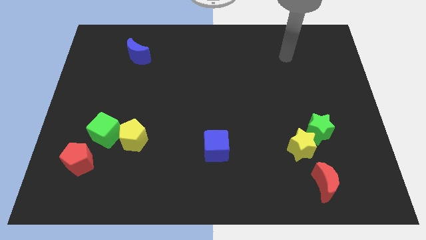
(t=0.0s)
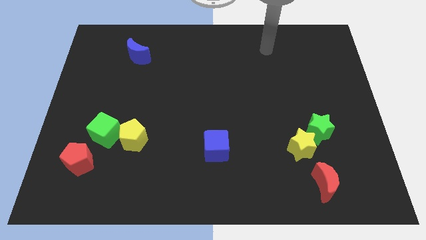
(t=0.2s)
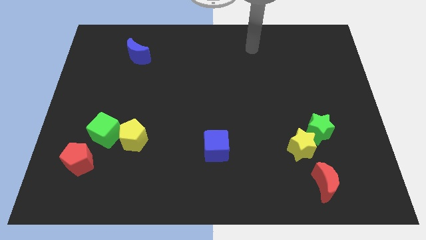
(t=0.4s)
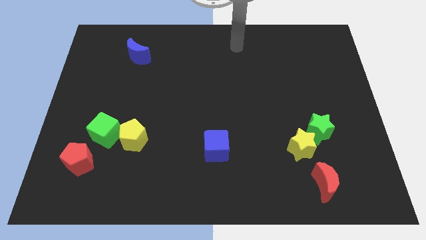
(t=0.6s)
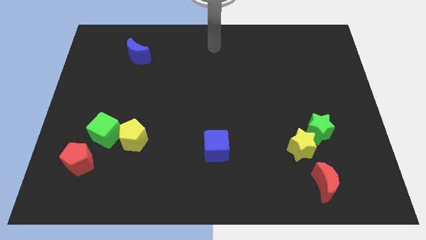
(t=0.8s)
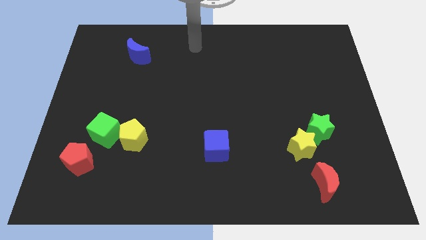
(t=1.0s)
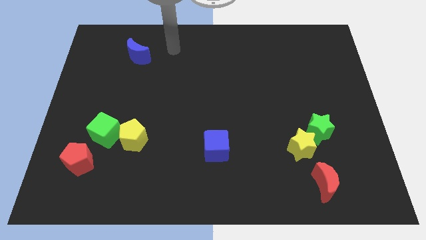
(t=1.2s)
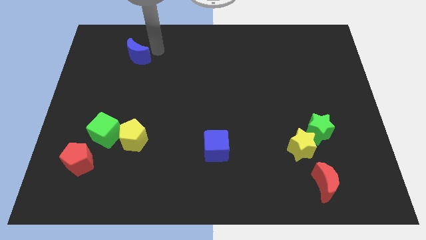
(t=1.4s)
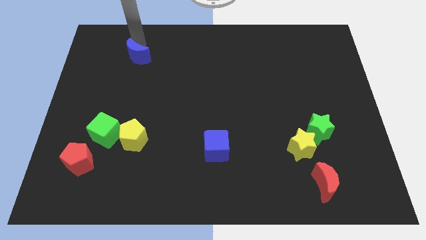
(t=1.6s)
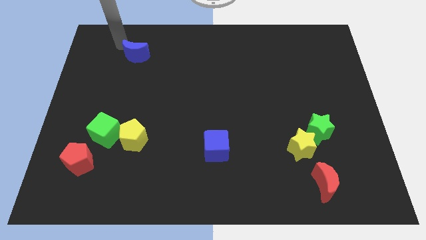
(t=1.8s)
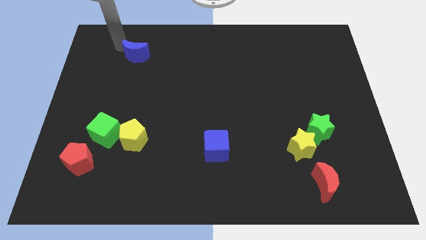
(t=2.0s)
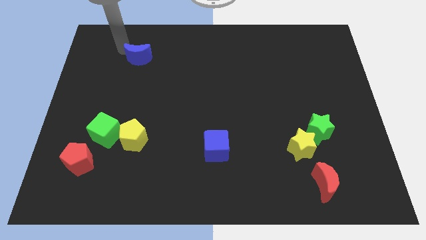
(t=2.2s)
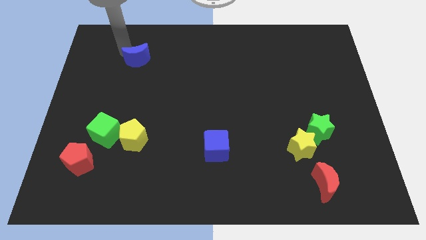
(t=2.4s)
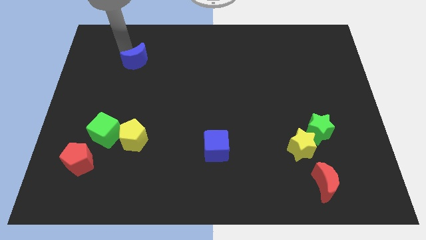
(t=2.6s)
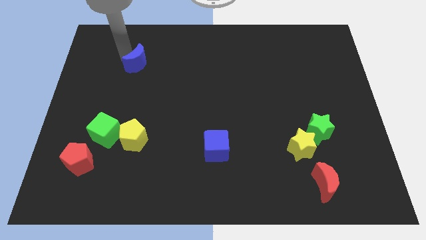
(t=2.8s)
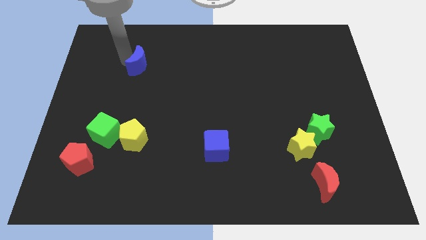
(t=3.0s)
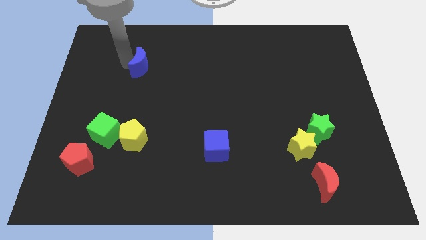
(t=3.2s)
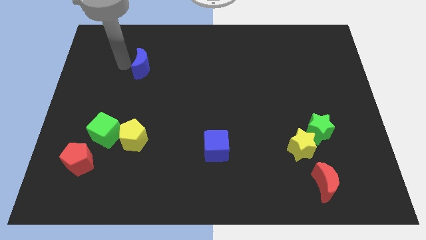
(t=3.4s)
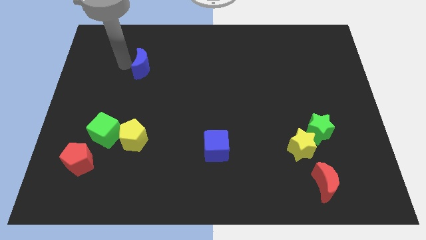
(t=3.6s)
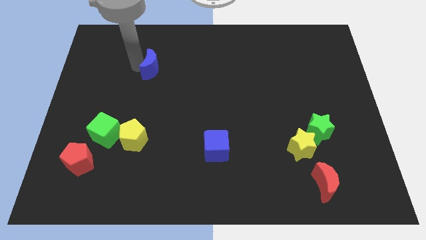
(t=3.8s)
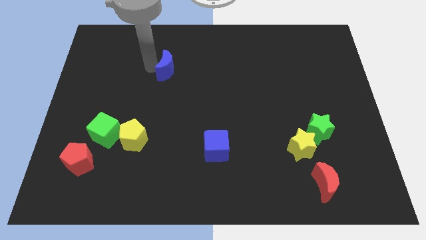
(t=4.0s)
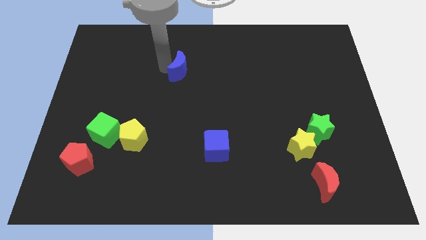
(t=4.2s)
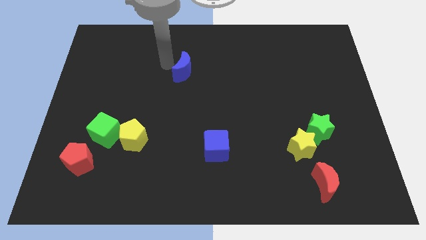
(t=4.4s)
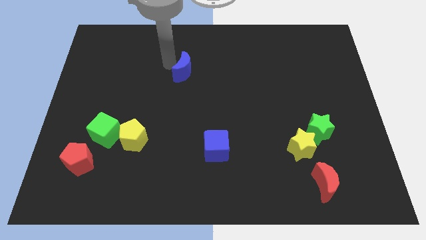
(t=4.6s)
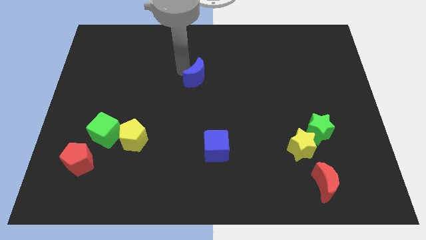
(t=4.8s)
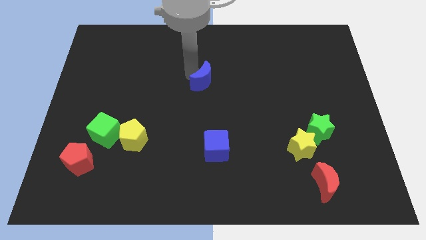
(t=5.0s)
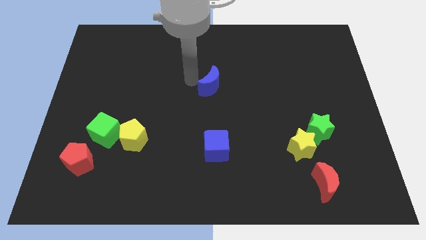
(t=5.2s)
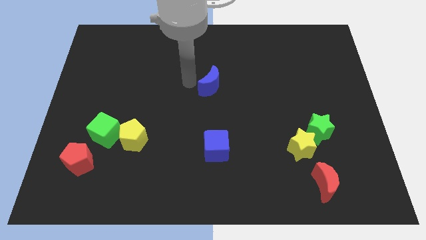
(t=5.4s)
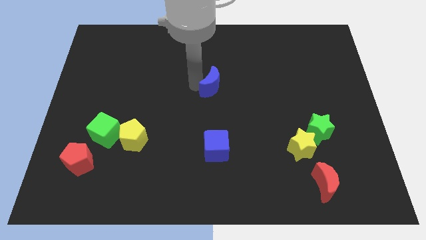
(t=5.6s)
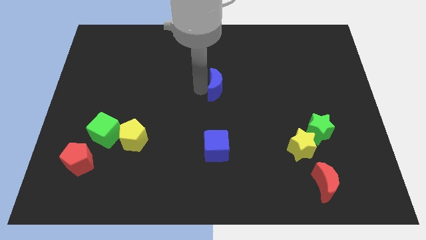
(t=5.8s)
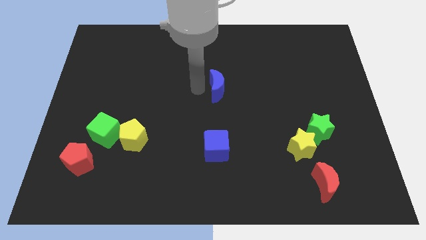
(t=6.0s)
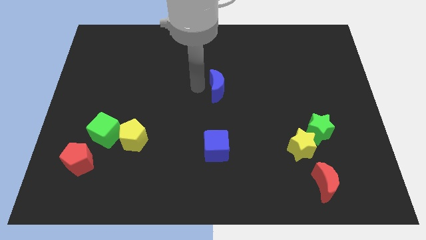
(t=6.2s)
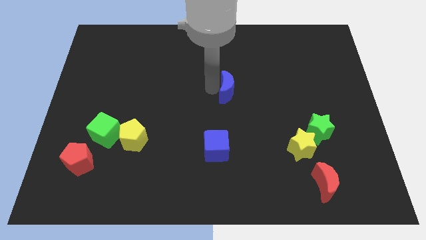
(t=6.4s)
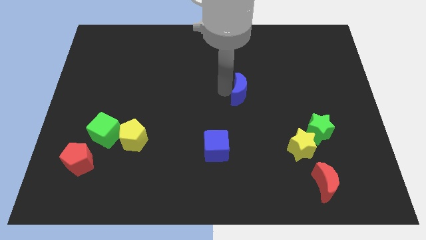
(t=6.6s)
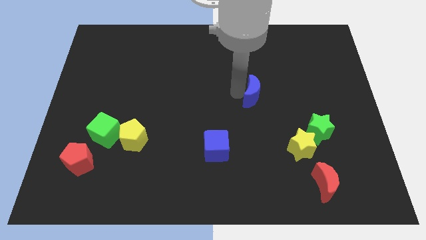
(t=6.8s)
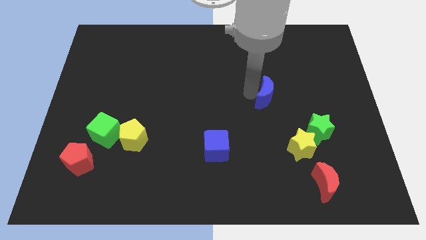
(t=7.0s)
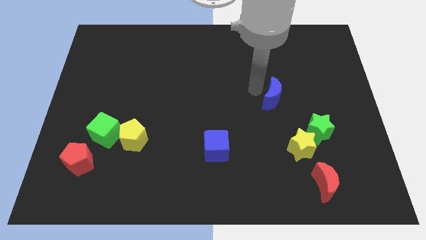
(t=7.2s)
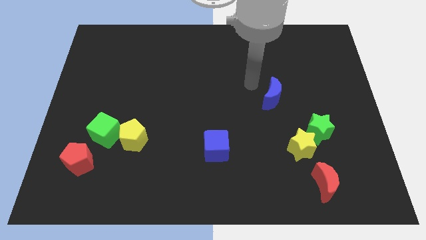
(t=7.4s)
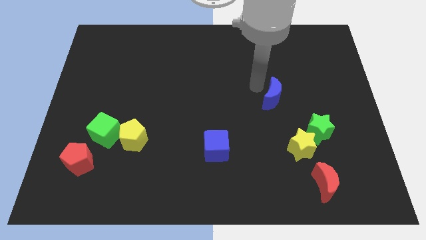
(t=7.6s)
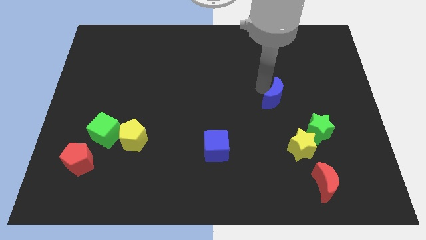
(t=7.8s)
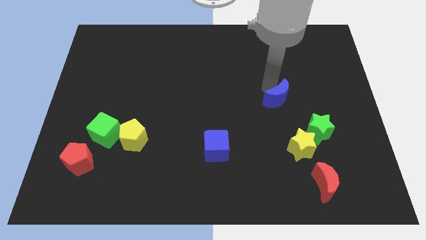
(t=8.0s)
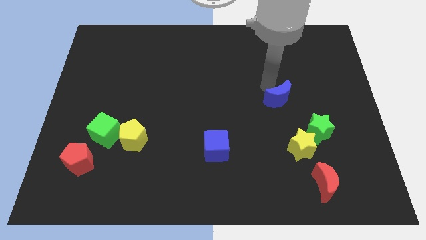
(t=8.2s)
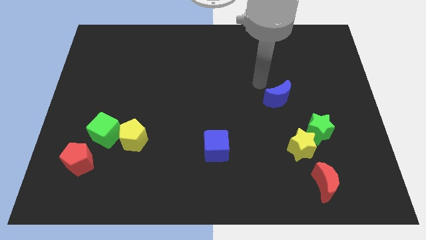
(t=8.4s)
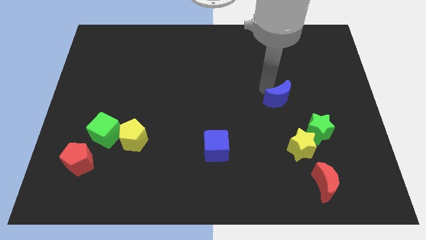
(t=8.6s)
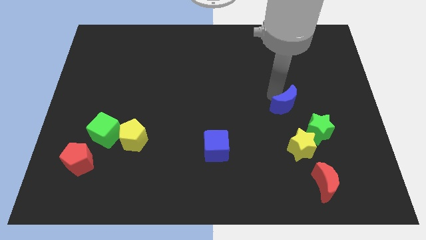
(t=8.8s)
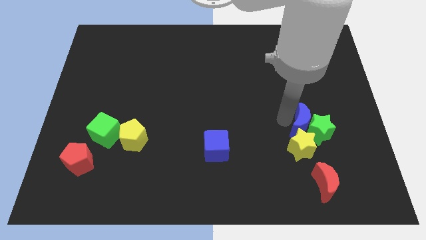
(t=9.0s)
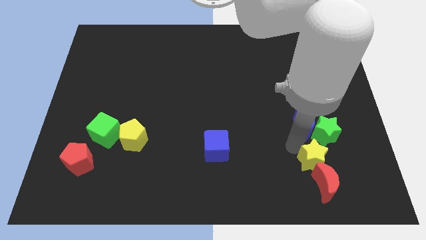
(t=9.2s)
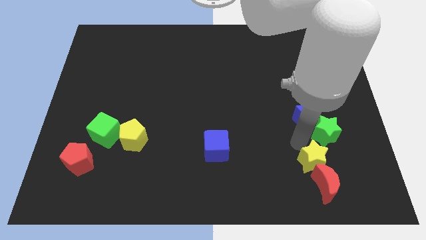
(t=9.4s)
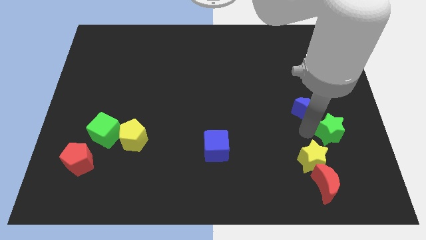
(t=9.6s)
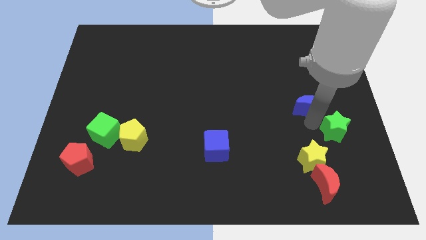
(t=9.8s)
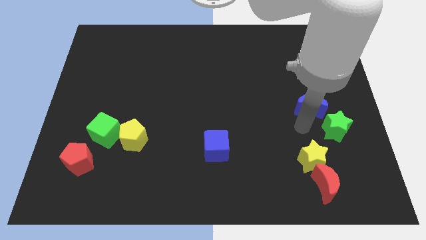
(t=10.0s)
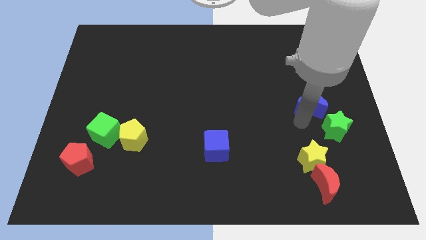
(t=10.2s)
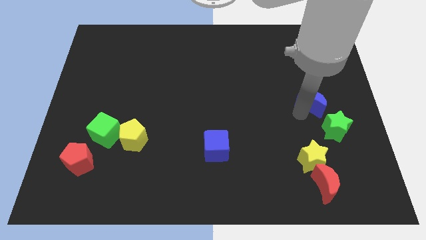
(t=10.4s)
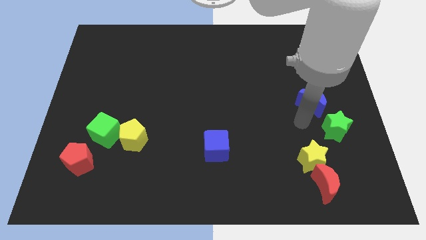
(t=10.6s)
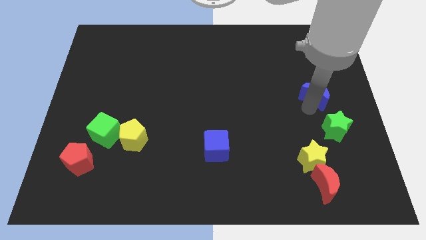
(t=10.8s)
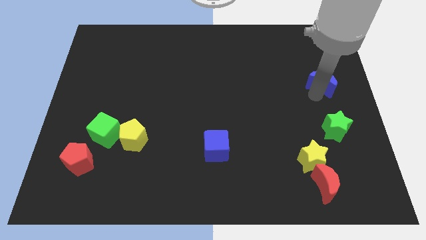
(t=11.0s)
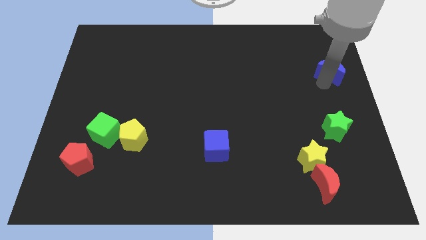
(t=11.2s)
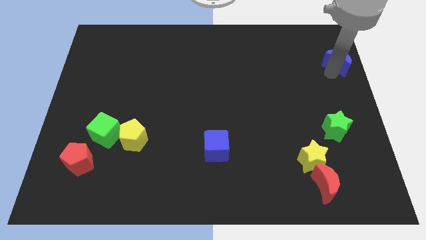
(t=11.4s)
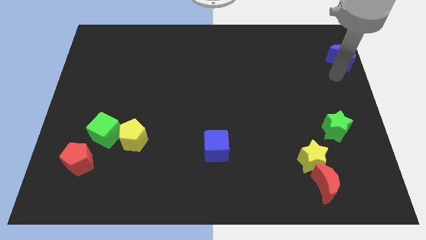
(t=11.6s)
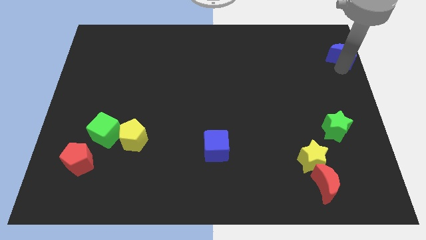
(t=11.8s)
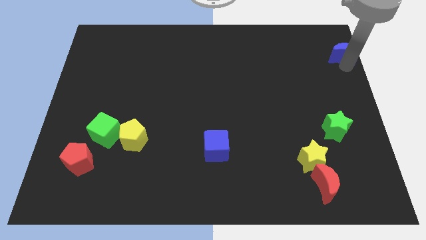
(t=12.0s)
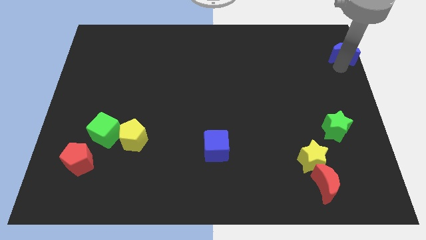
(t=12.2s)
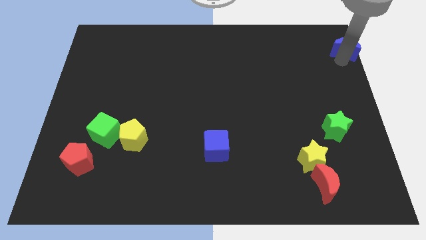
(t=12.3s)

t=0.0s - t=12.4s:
slide the blue moon to the top right of the board

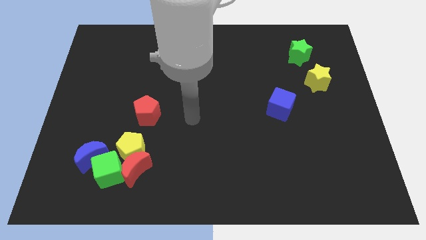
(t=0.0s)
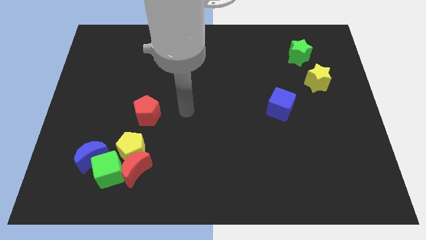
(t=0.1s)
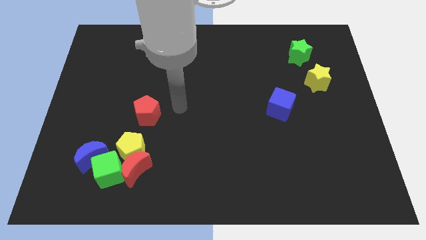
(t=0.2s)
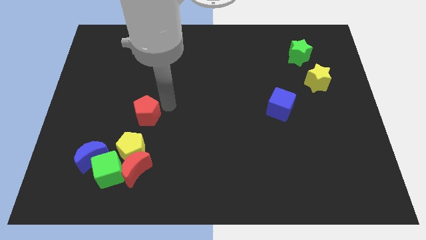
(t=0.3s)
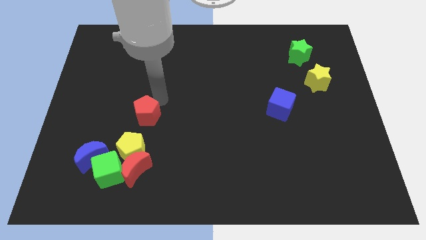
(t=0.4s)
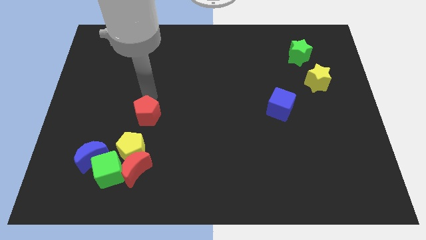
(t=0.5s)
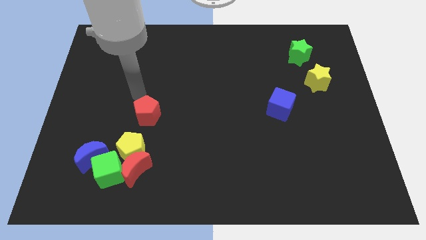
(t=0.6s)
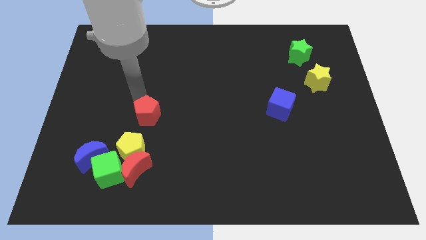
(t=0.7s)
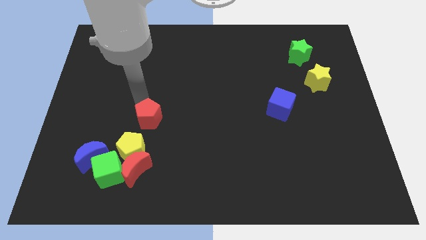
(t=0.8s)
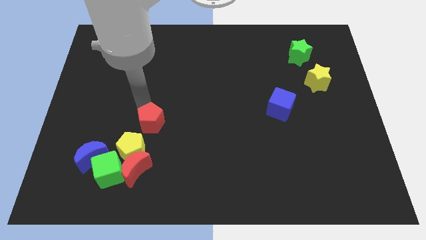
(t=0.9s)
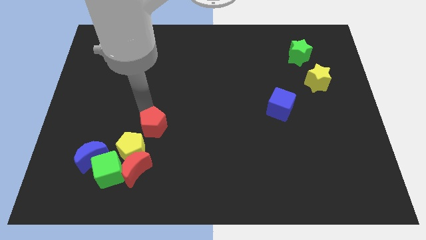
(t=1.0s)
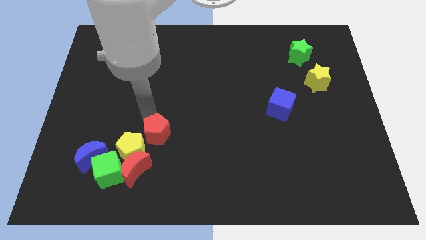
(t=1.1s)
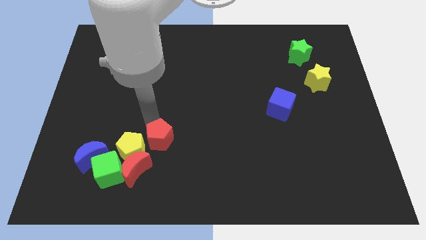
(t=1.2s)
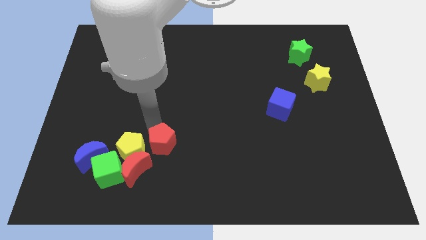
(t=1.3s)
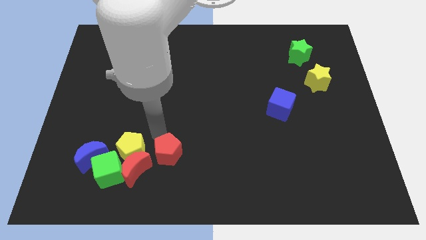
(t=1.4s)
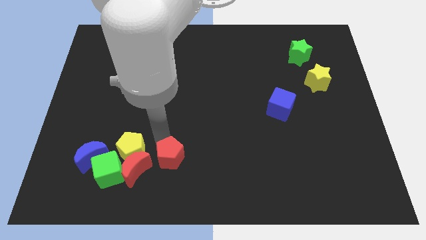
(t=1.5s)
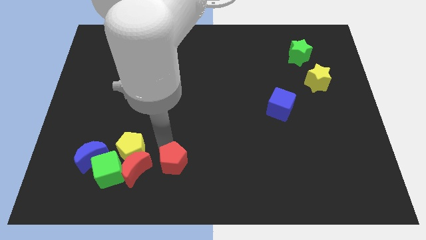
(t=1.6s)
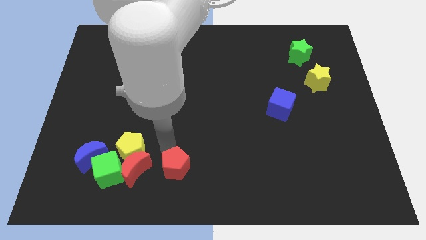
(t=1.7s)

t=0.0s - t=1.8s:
move the red pentagon to the bottom
